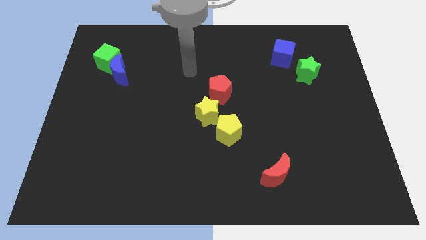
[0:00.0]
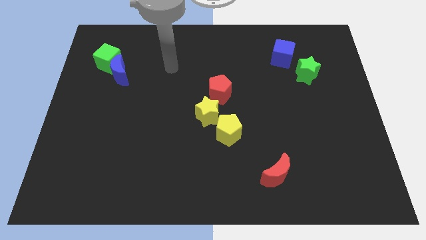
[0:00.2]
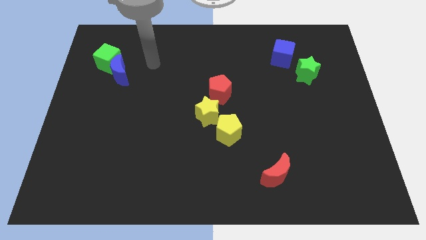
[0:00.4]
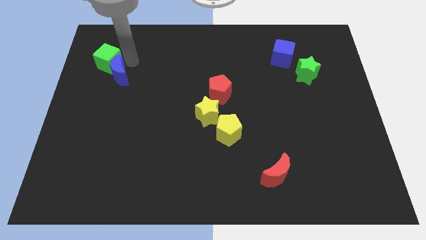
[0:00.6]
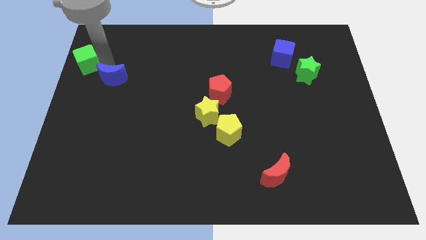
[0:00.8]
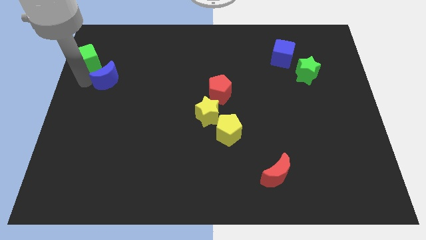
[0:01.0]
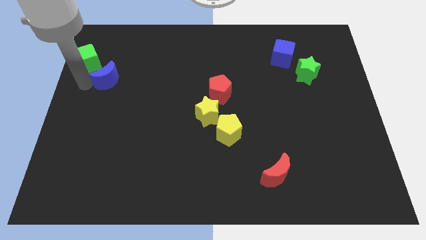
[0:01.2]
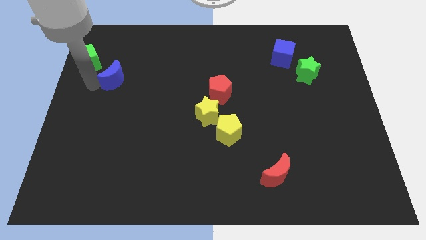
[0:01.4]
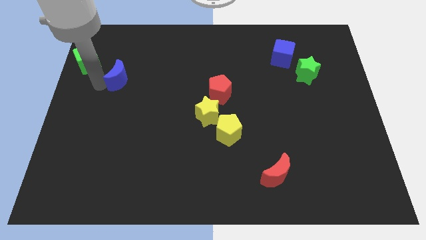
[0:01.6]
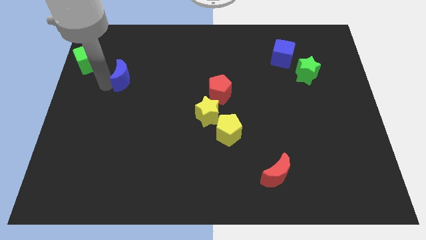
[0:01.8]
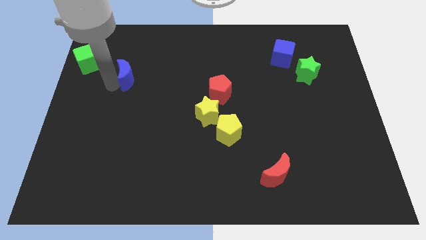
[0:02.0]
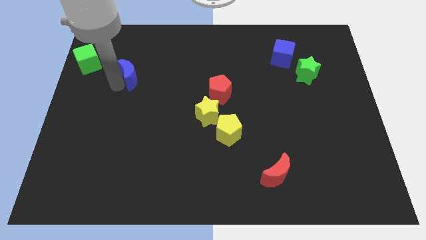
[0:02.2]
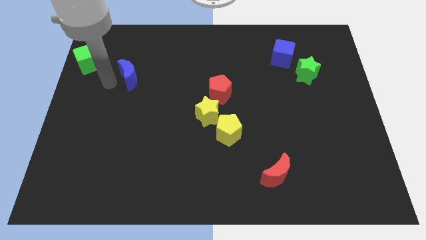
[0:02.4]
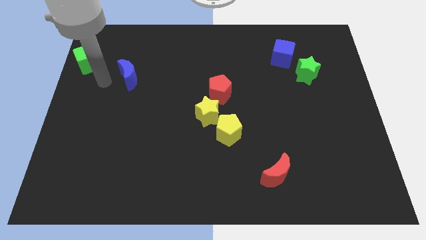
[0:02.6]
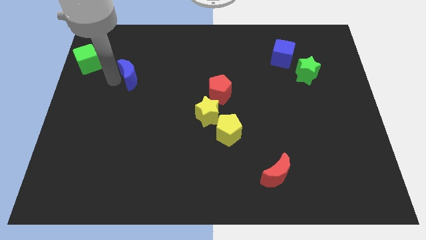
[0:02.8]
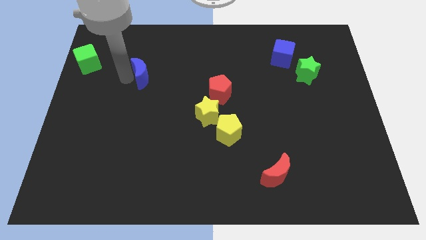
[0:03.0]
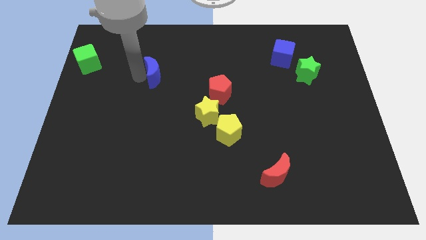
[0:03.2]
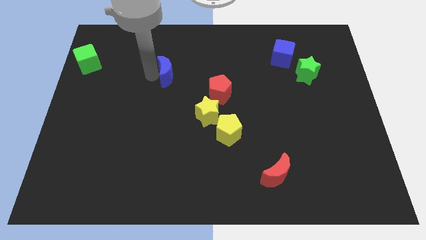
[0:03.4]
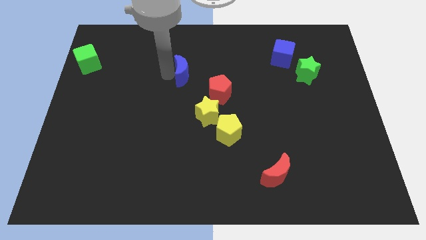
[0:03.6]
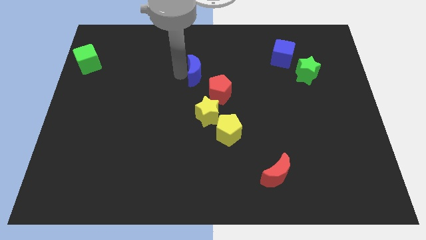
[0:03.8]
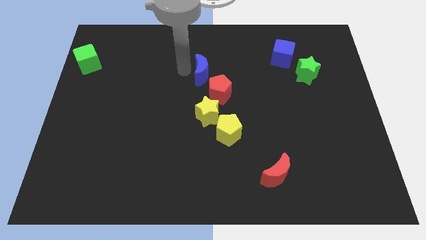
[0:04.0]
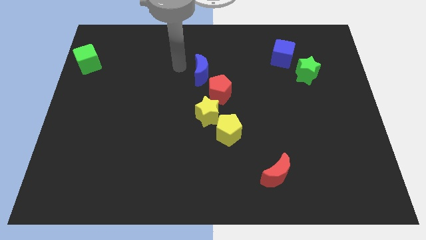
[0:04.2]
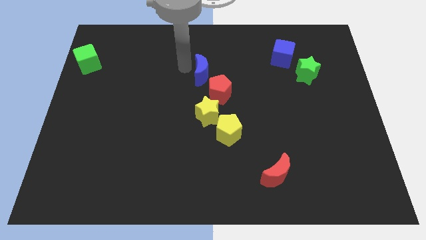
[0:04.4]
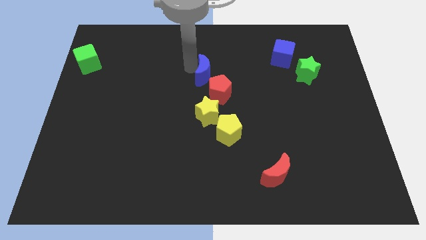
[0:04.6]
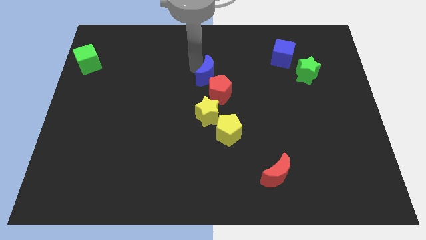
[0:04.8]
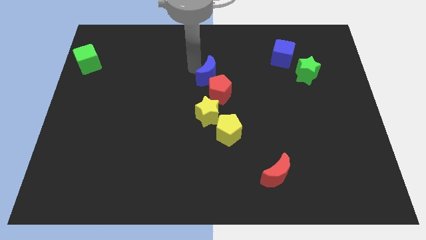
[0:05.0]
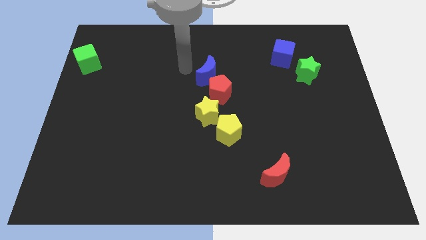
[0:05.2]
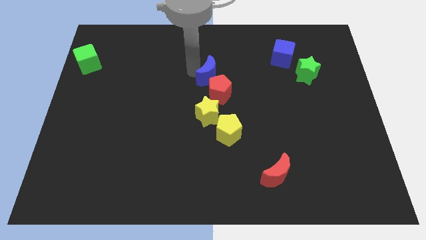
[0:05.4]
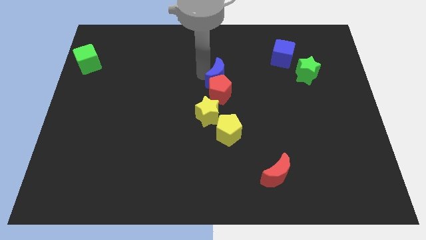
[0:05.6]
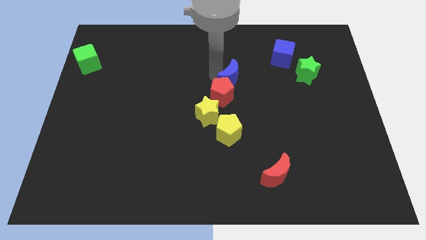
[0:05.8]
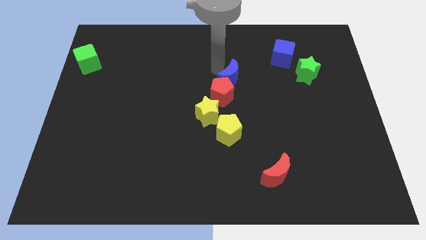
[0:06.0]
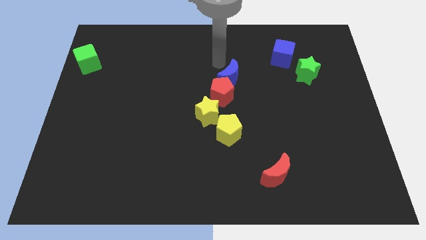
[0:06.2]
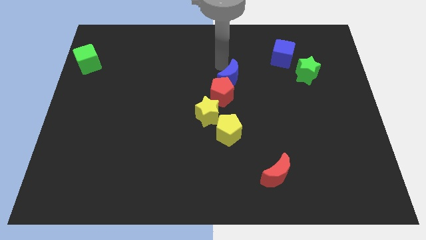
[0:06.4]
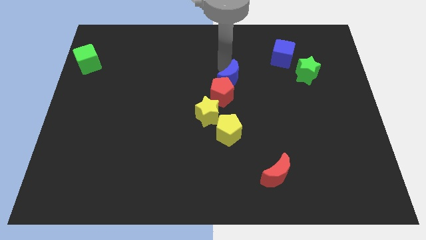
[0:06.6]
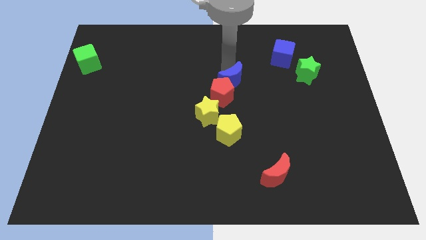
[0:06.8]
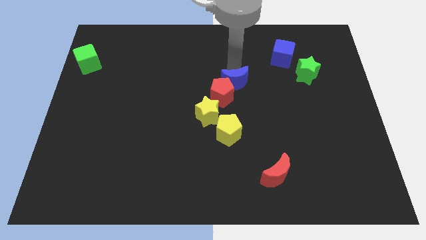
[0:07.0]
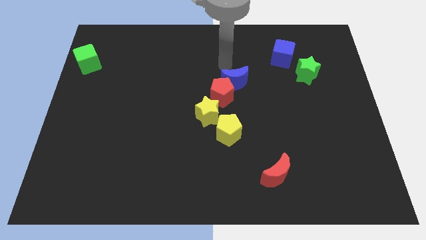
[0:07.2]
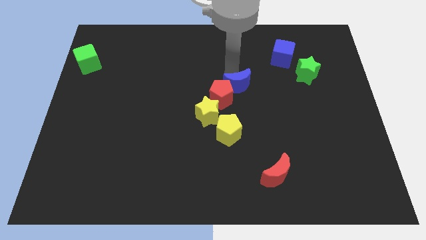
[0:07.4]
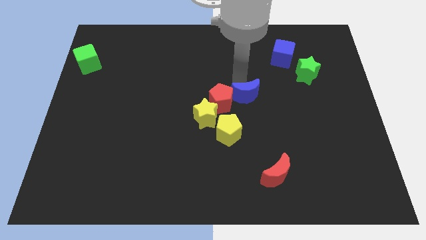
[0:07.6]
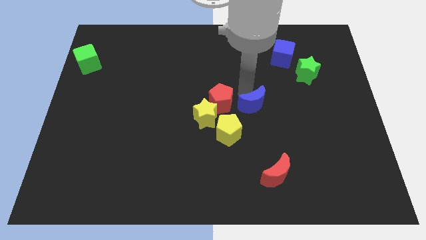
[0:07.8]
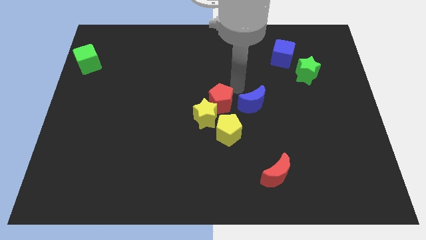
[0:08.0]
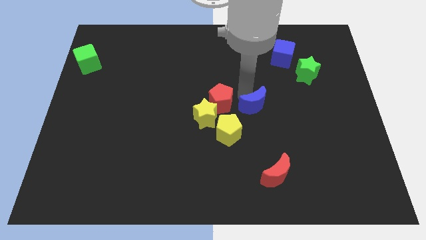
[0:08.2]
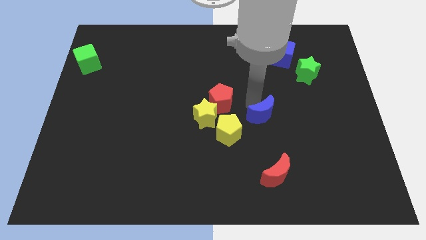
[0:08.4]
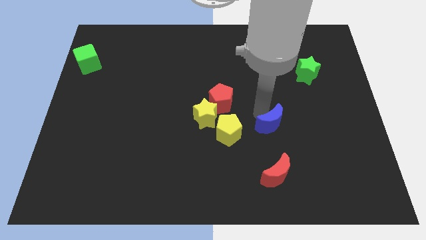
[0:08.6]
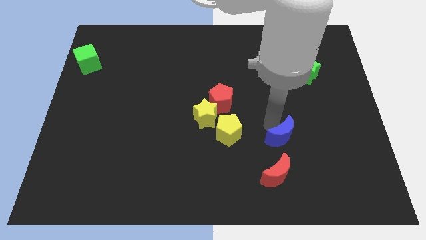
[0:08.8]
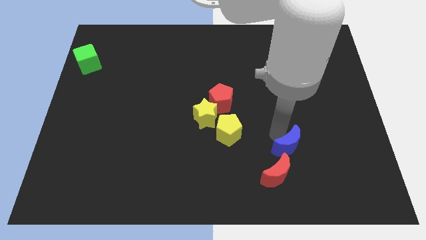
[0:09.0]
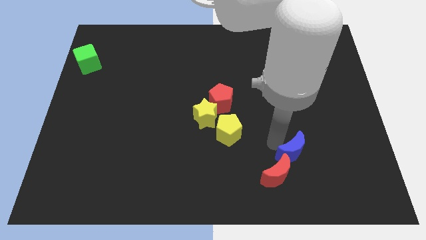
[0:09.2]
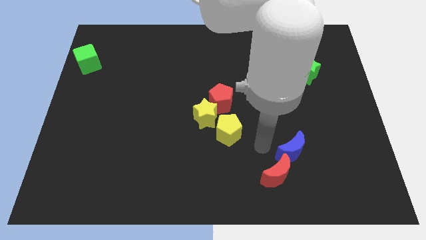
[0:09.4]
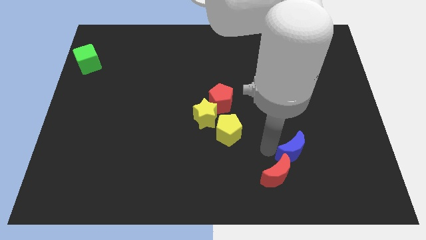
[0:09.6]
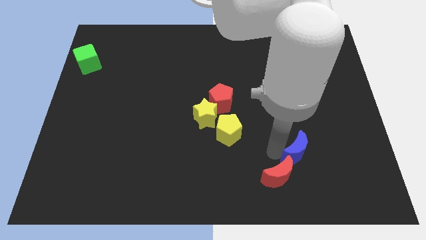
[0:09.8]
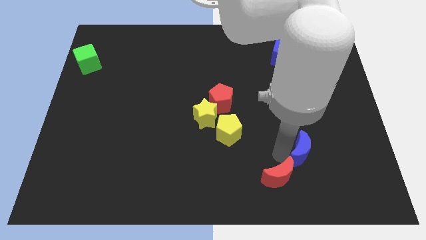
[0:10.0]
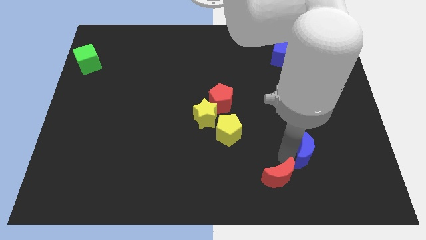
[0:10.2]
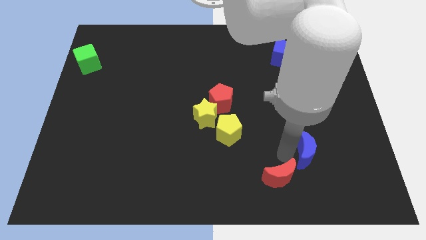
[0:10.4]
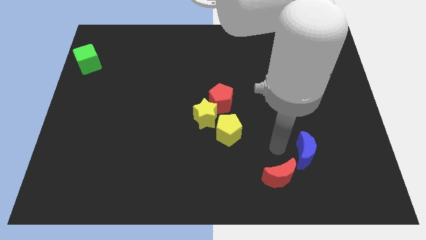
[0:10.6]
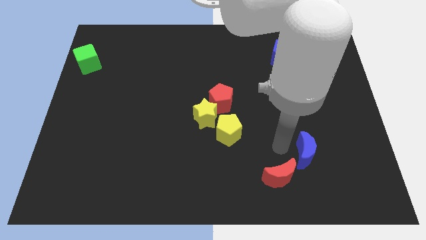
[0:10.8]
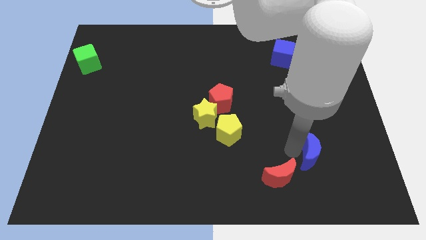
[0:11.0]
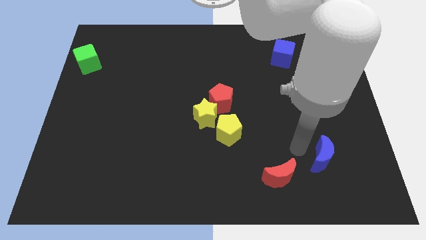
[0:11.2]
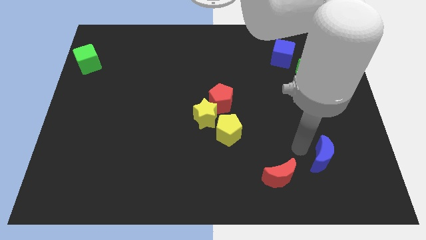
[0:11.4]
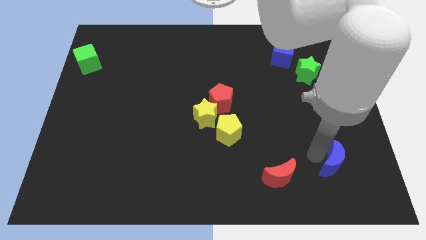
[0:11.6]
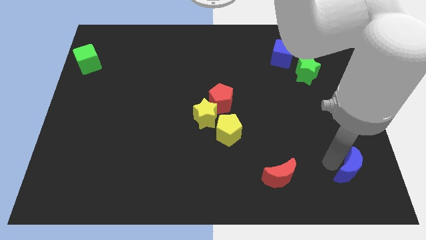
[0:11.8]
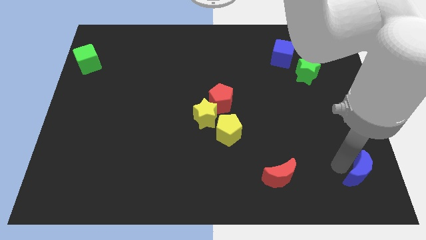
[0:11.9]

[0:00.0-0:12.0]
move the blue moon to the bottom right of the board
